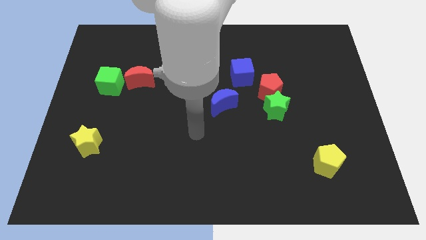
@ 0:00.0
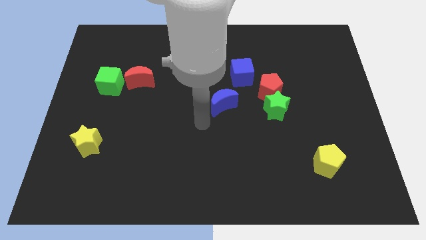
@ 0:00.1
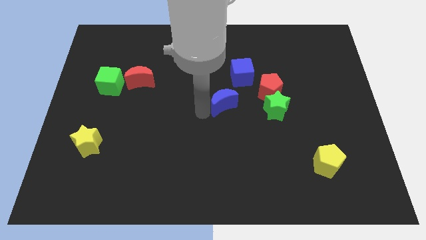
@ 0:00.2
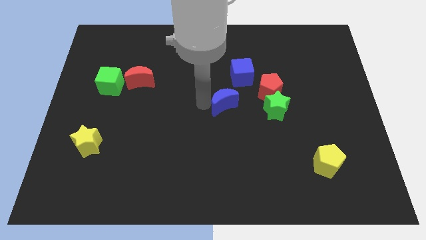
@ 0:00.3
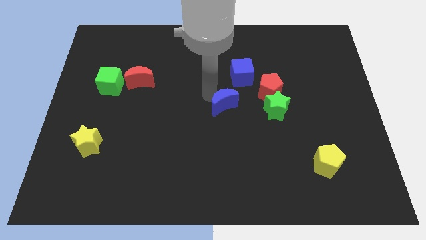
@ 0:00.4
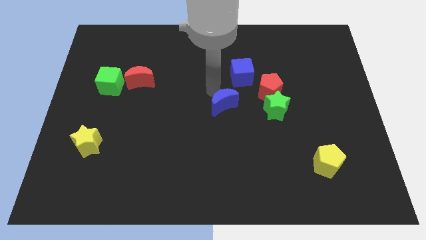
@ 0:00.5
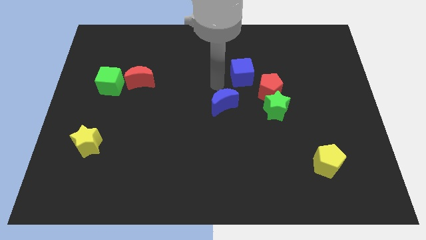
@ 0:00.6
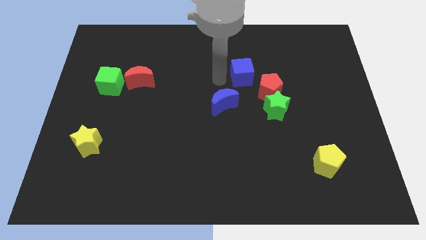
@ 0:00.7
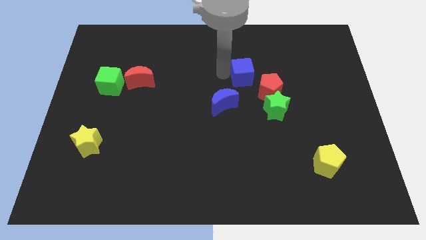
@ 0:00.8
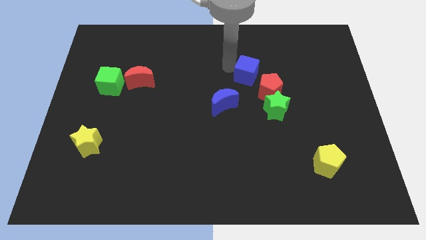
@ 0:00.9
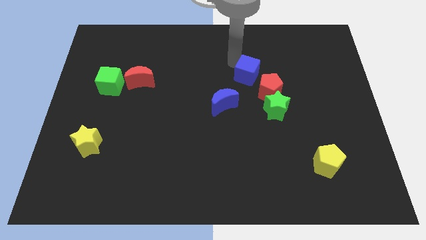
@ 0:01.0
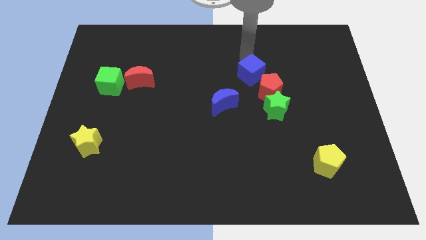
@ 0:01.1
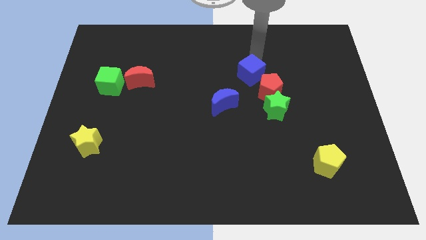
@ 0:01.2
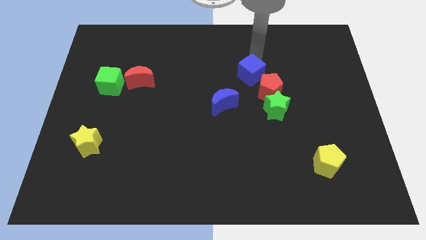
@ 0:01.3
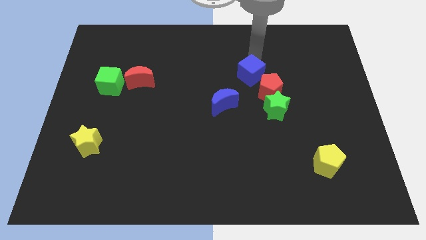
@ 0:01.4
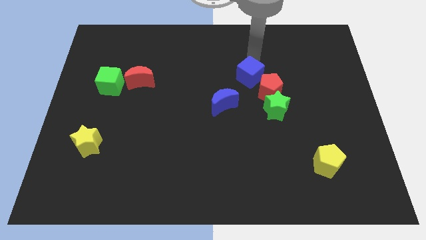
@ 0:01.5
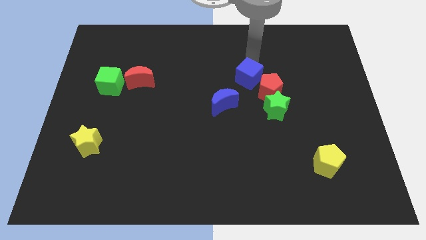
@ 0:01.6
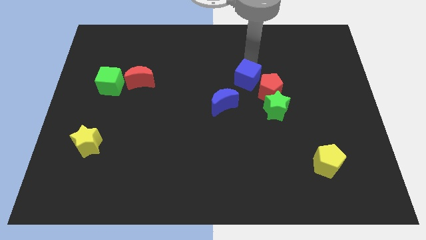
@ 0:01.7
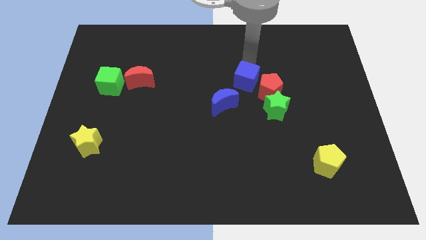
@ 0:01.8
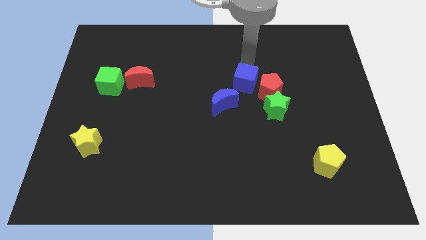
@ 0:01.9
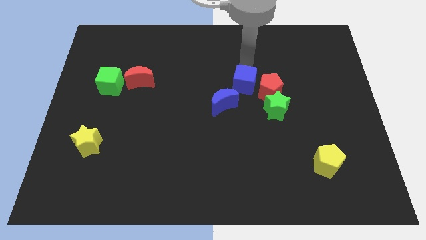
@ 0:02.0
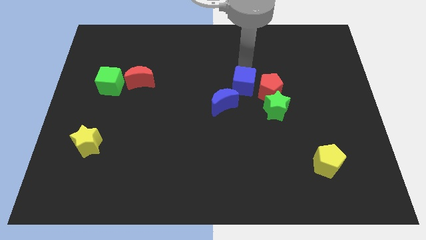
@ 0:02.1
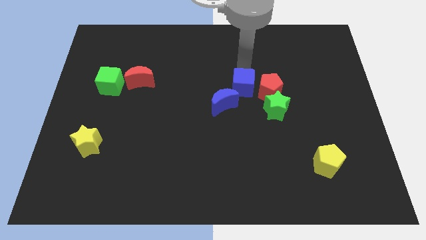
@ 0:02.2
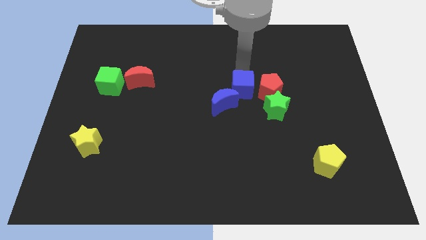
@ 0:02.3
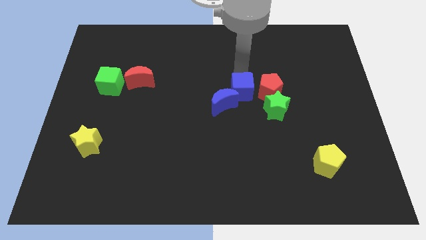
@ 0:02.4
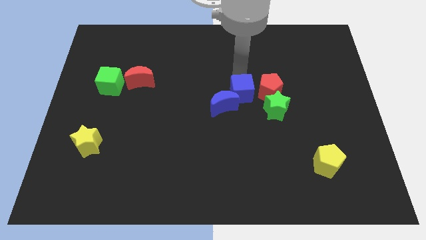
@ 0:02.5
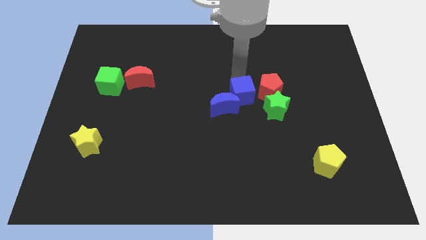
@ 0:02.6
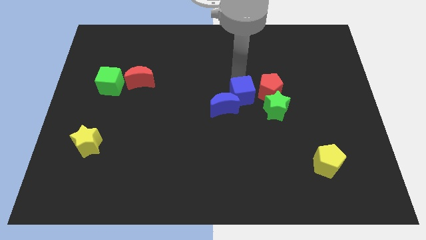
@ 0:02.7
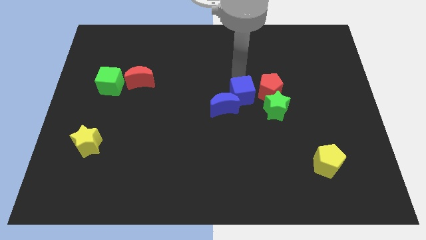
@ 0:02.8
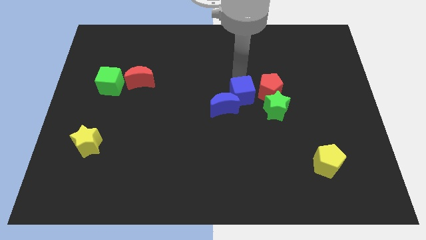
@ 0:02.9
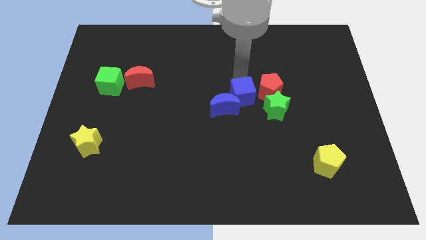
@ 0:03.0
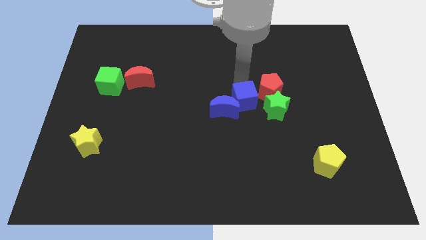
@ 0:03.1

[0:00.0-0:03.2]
push the blue cube slightly down

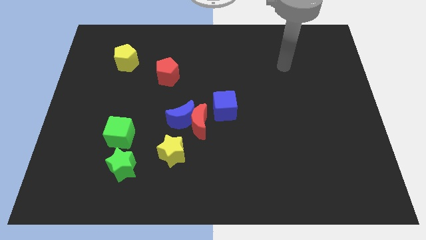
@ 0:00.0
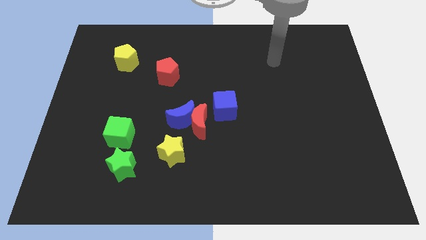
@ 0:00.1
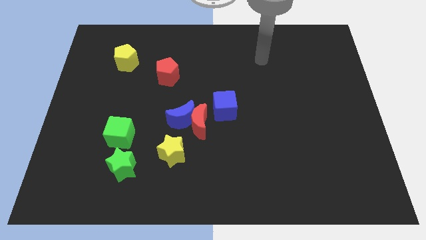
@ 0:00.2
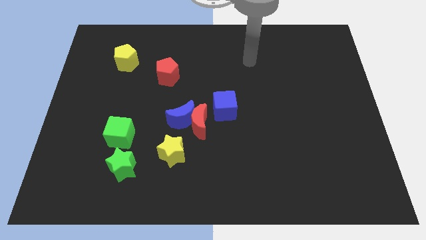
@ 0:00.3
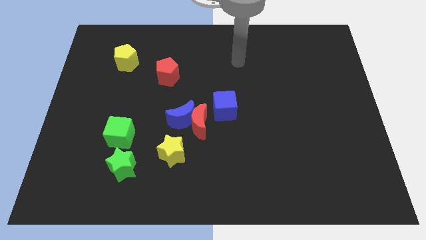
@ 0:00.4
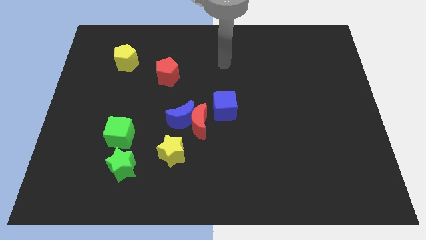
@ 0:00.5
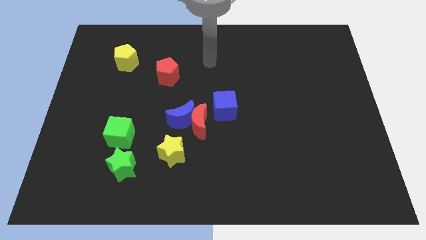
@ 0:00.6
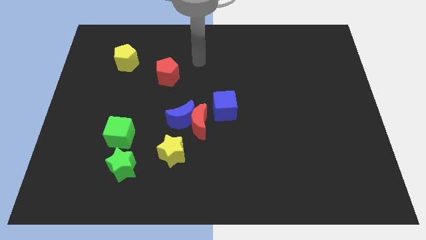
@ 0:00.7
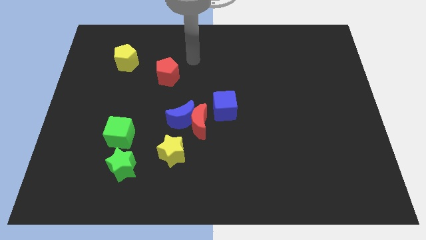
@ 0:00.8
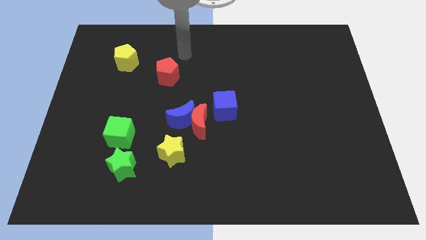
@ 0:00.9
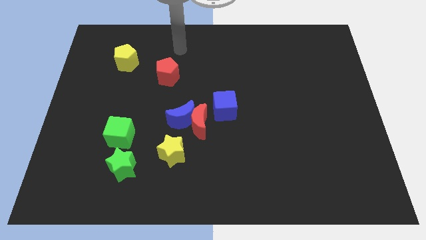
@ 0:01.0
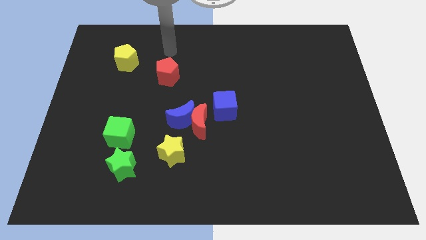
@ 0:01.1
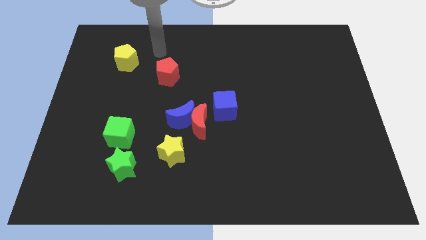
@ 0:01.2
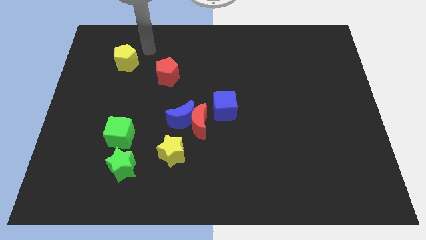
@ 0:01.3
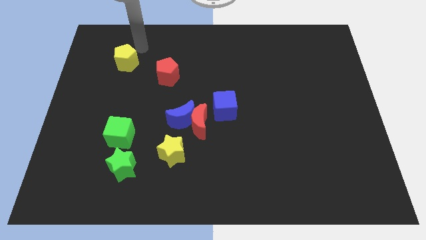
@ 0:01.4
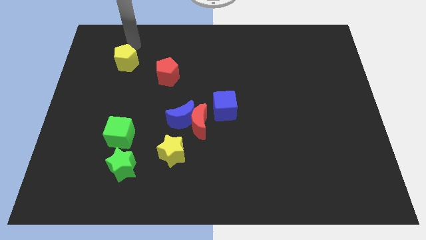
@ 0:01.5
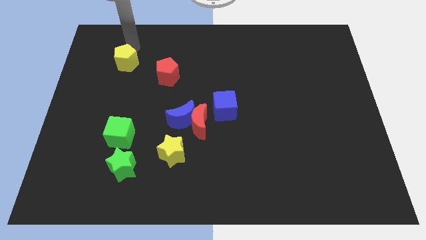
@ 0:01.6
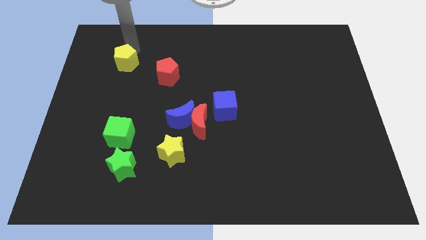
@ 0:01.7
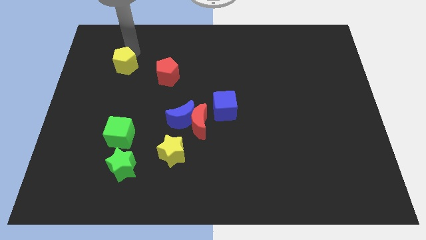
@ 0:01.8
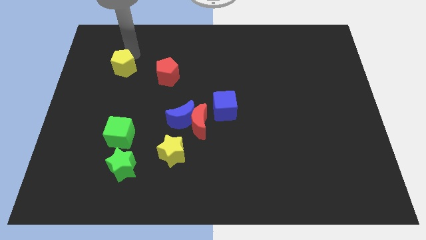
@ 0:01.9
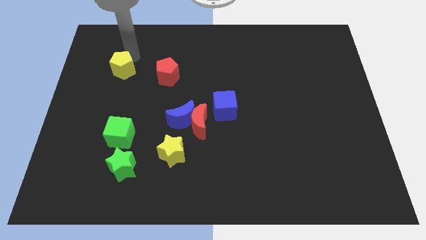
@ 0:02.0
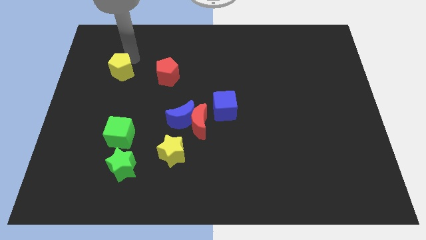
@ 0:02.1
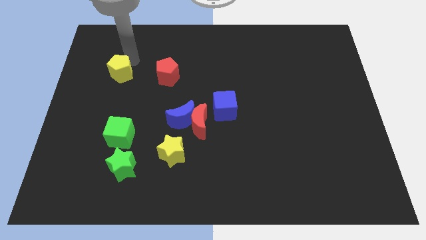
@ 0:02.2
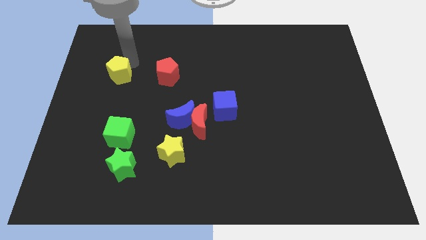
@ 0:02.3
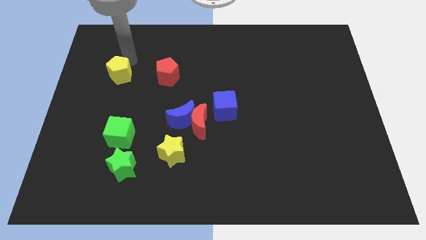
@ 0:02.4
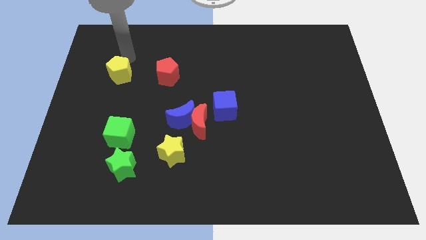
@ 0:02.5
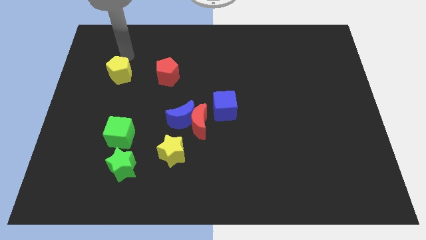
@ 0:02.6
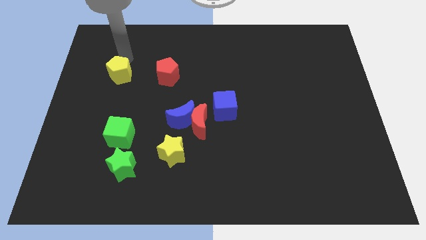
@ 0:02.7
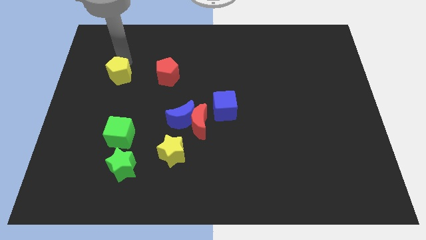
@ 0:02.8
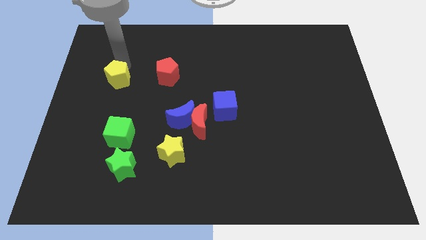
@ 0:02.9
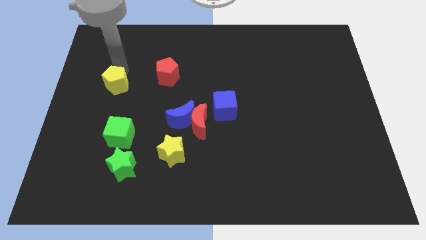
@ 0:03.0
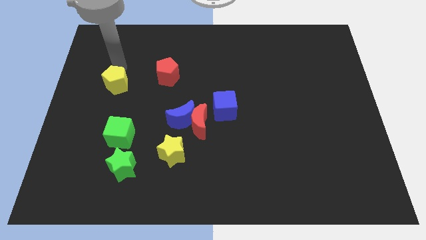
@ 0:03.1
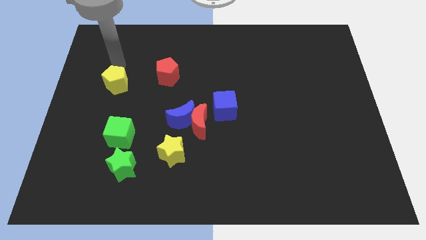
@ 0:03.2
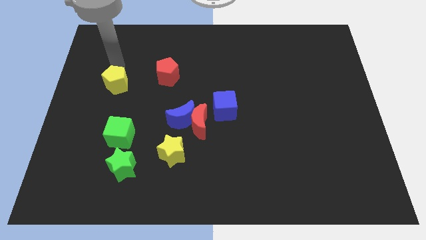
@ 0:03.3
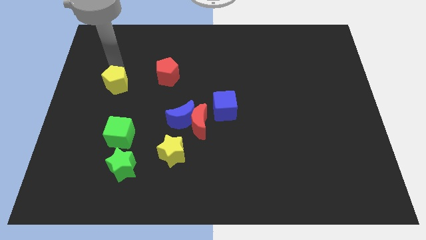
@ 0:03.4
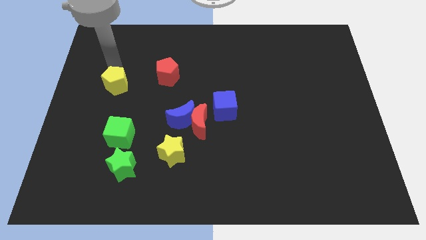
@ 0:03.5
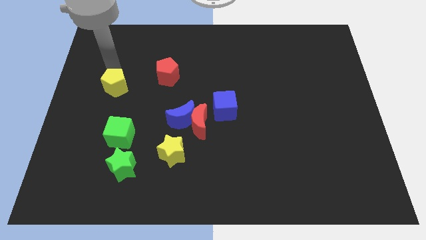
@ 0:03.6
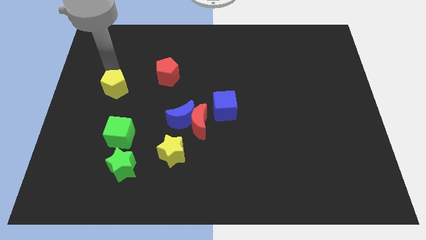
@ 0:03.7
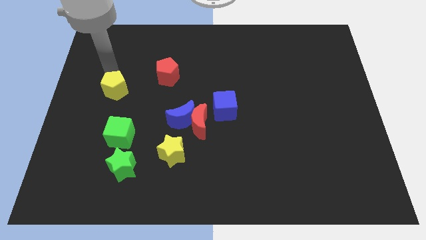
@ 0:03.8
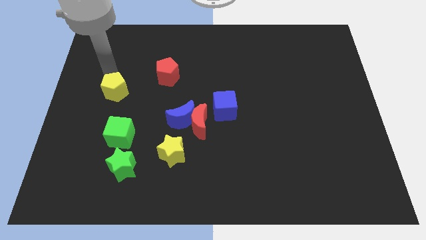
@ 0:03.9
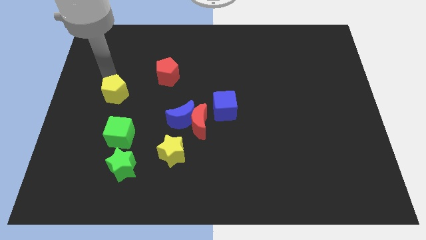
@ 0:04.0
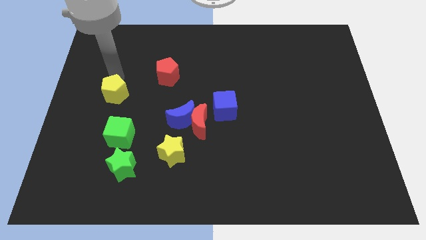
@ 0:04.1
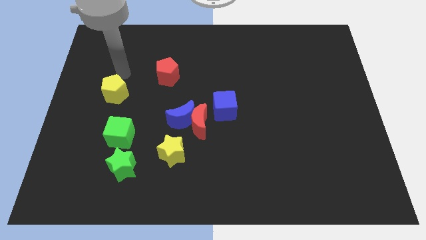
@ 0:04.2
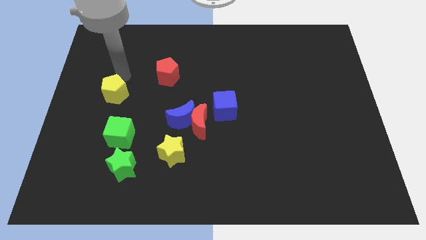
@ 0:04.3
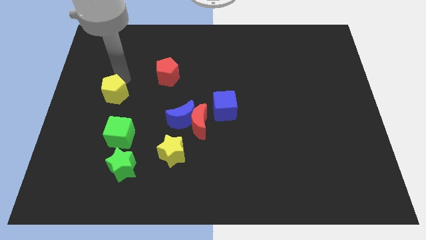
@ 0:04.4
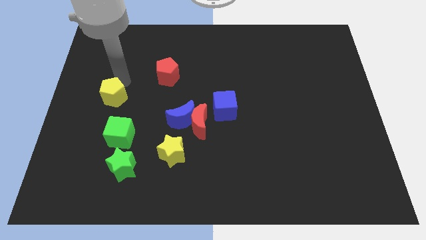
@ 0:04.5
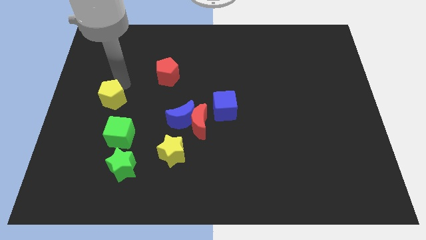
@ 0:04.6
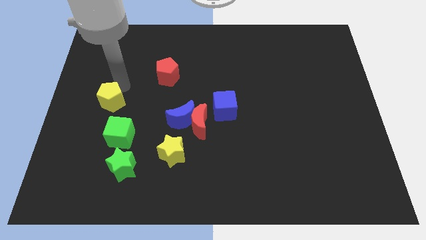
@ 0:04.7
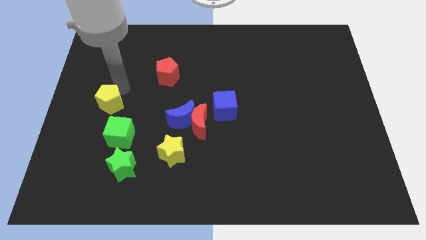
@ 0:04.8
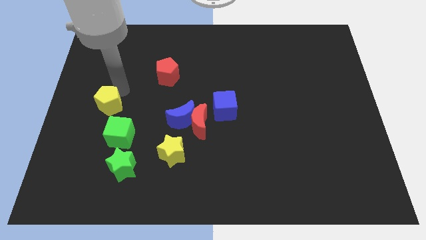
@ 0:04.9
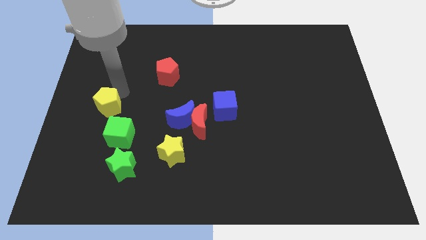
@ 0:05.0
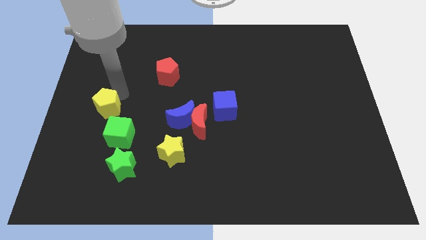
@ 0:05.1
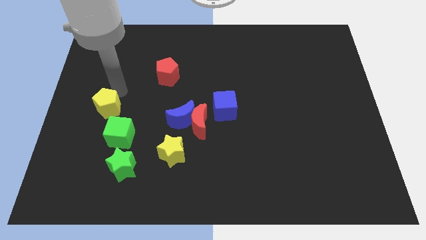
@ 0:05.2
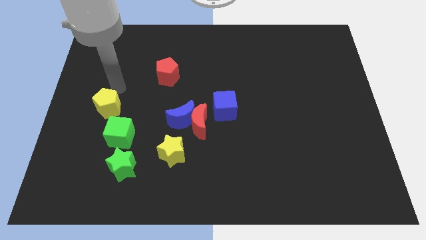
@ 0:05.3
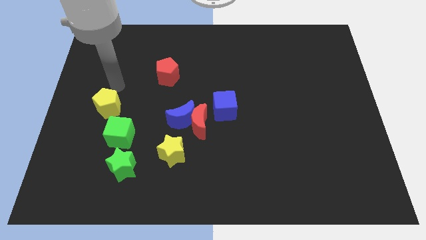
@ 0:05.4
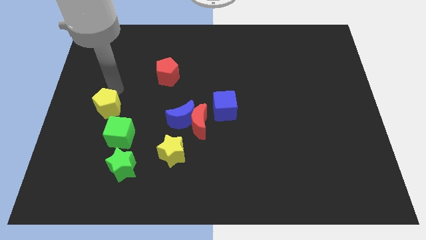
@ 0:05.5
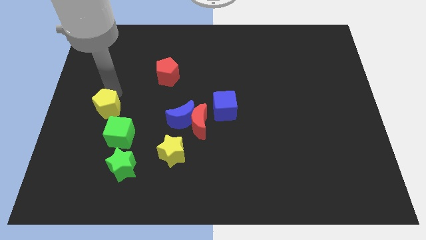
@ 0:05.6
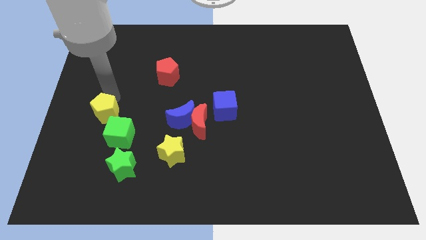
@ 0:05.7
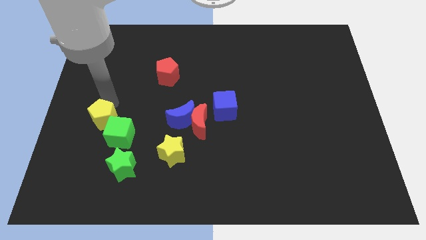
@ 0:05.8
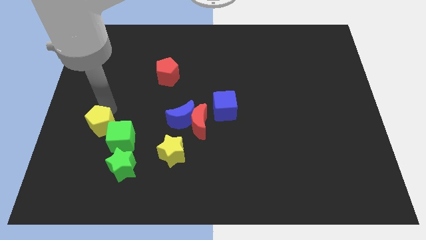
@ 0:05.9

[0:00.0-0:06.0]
slide the yellow pentagon downwards
